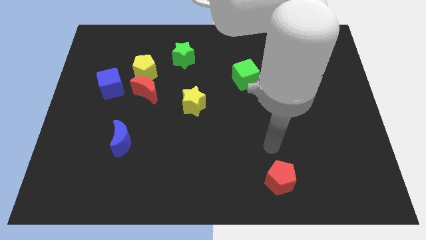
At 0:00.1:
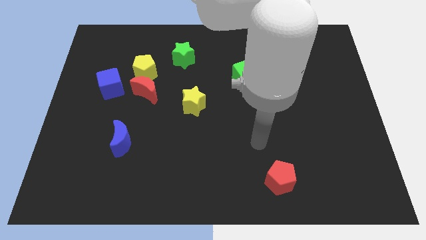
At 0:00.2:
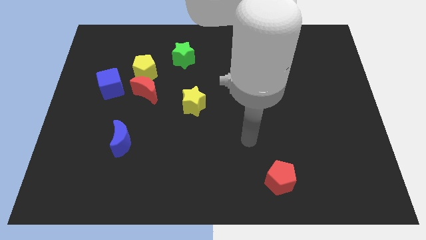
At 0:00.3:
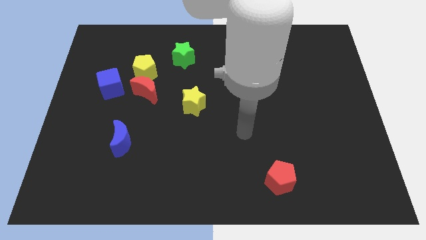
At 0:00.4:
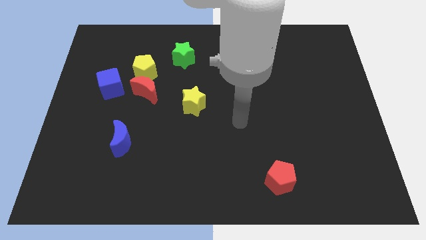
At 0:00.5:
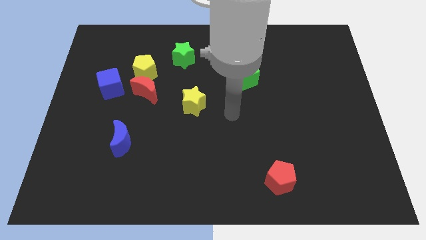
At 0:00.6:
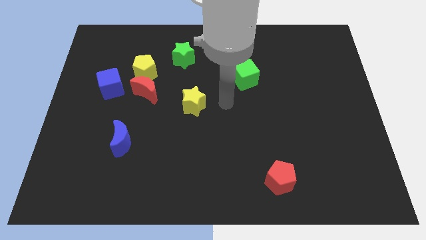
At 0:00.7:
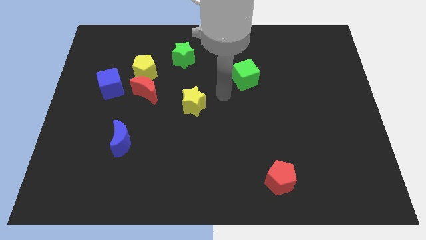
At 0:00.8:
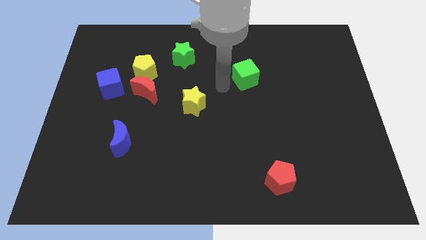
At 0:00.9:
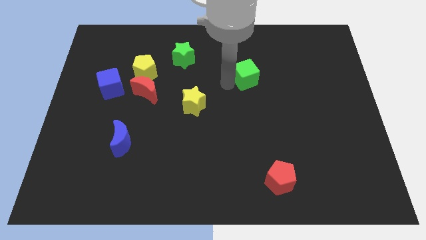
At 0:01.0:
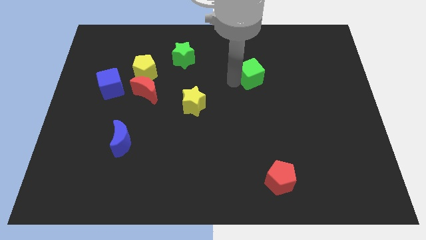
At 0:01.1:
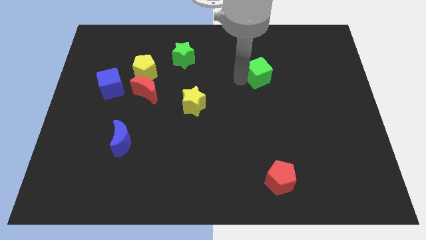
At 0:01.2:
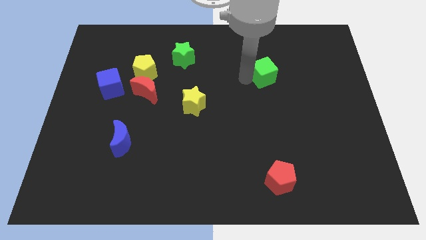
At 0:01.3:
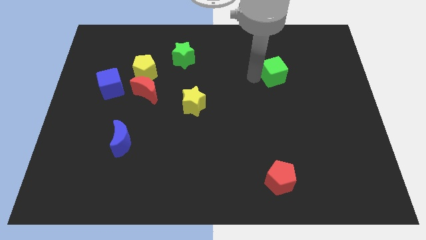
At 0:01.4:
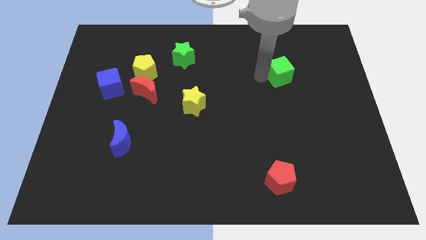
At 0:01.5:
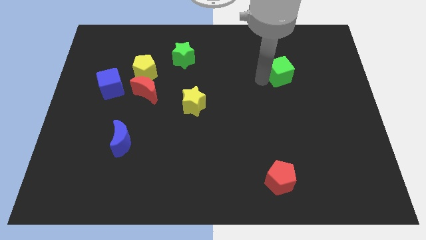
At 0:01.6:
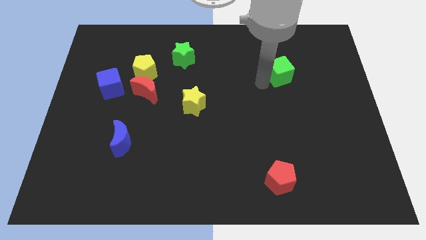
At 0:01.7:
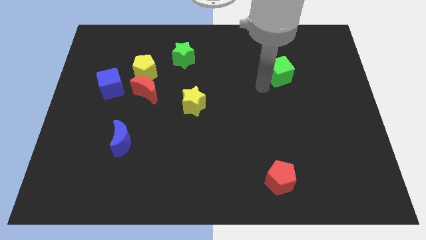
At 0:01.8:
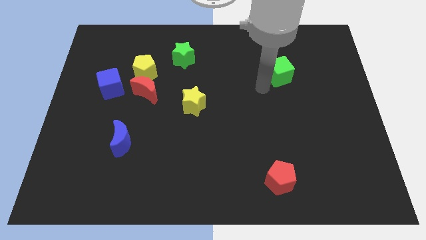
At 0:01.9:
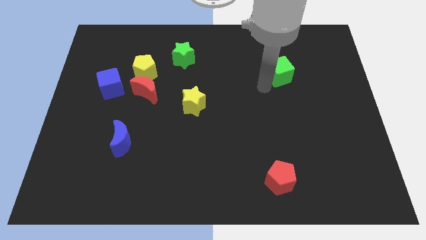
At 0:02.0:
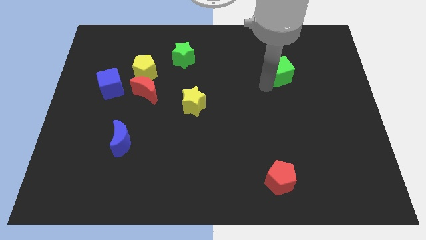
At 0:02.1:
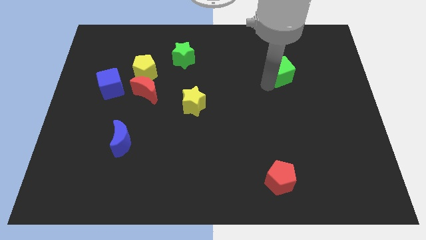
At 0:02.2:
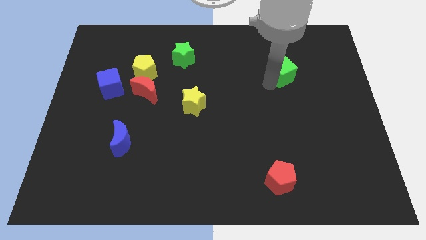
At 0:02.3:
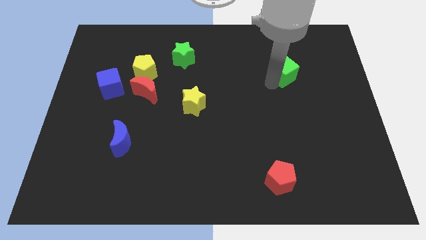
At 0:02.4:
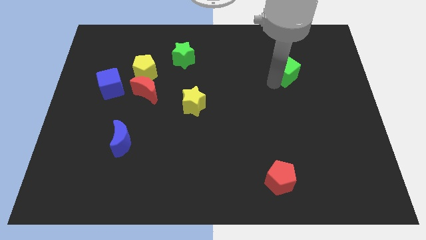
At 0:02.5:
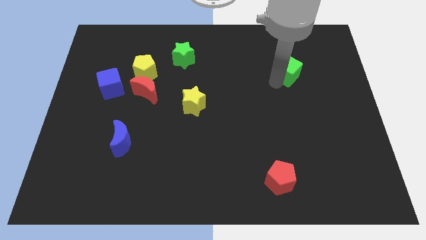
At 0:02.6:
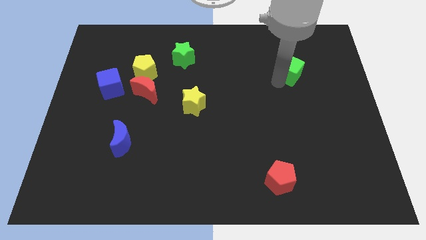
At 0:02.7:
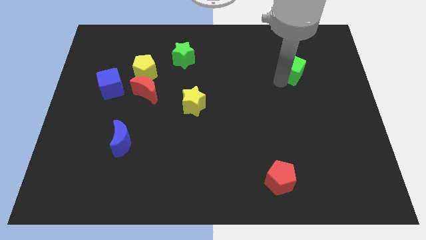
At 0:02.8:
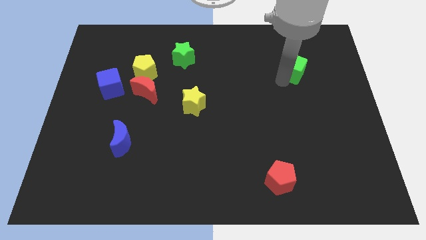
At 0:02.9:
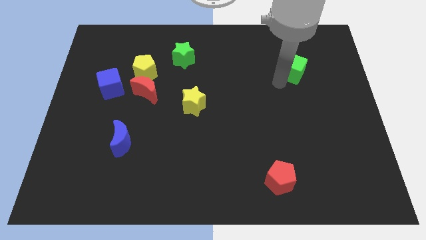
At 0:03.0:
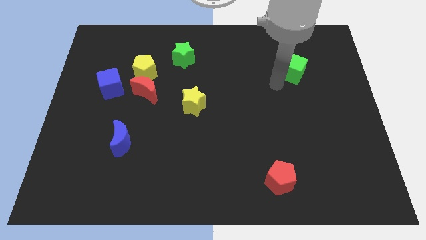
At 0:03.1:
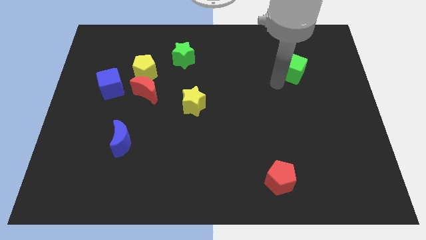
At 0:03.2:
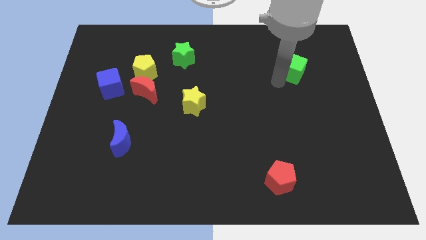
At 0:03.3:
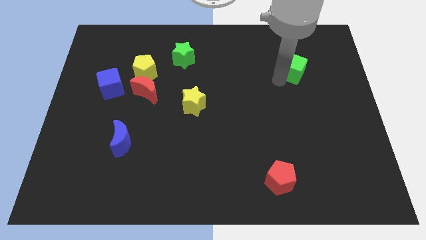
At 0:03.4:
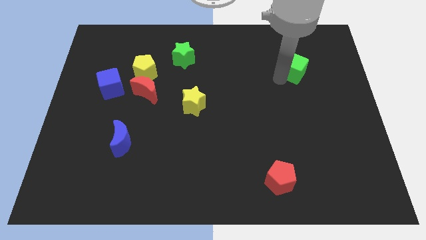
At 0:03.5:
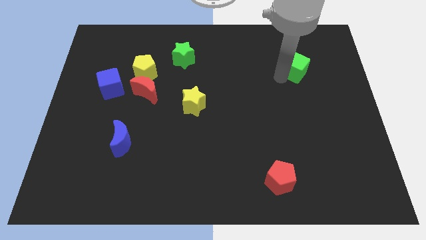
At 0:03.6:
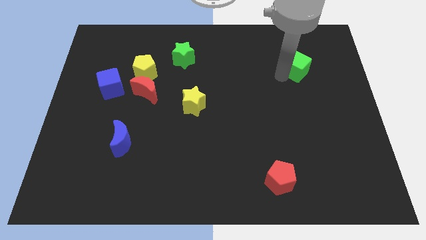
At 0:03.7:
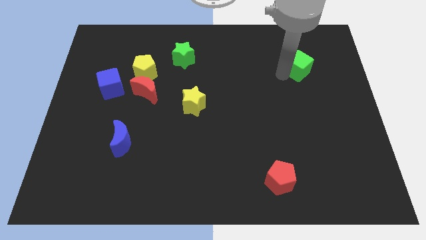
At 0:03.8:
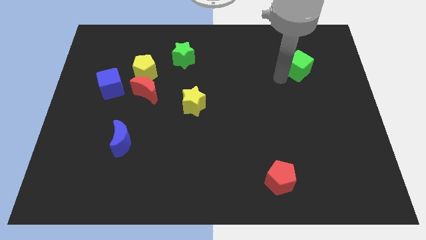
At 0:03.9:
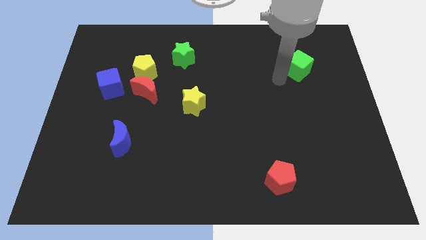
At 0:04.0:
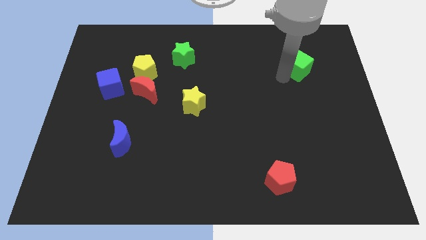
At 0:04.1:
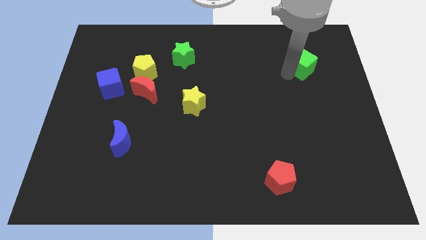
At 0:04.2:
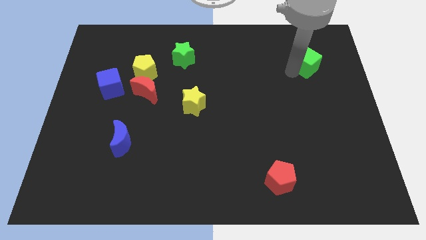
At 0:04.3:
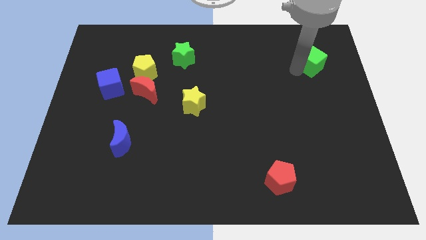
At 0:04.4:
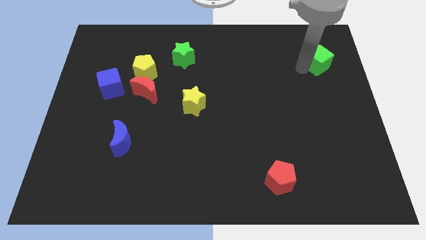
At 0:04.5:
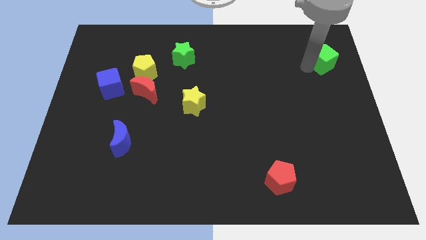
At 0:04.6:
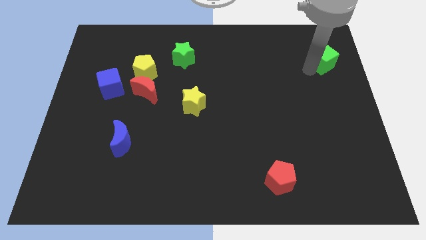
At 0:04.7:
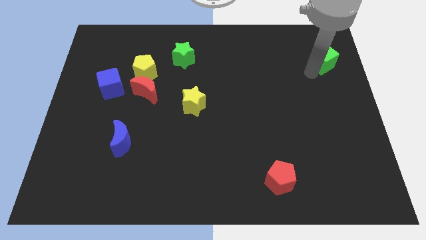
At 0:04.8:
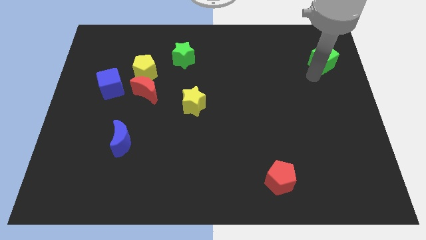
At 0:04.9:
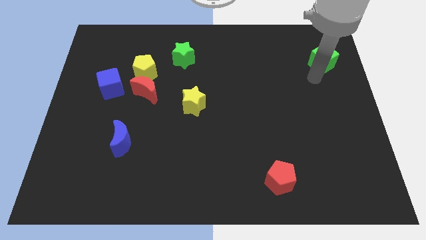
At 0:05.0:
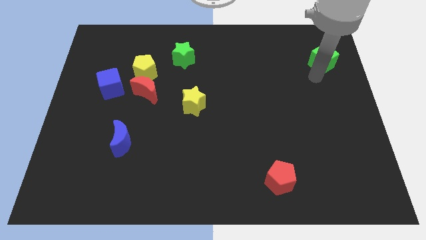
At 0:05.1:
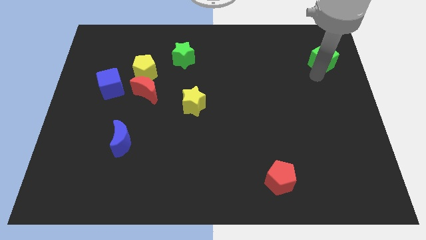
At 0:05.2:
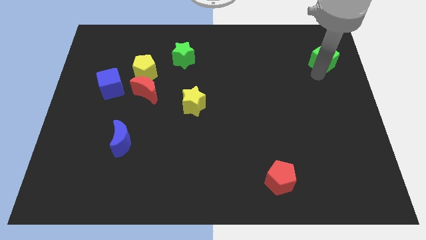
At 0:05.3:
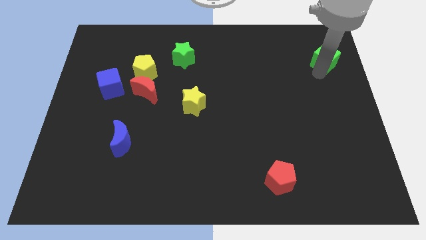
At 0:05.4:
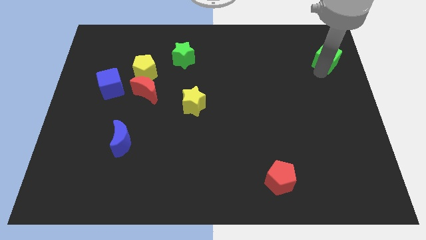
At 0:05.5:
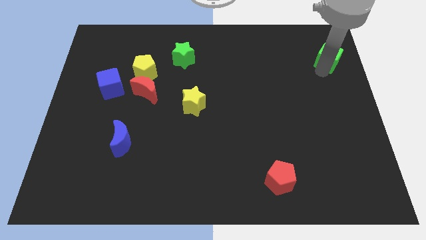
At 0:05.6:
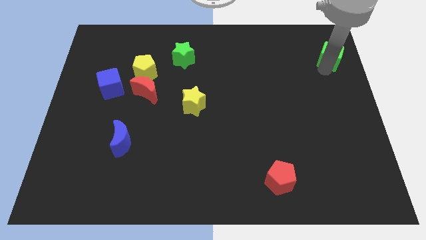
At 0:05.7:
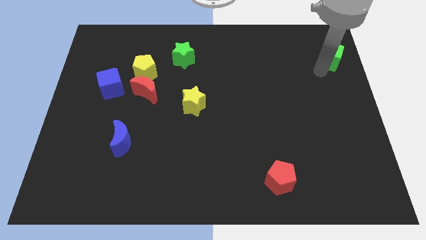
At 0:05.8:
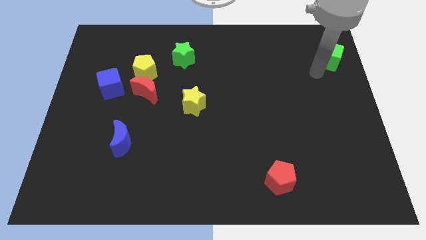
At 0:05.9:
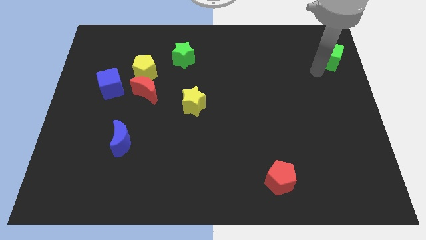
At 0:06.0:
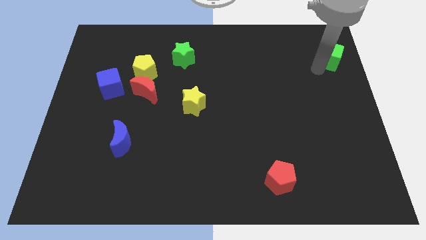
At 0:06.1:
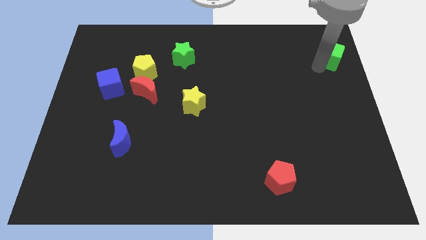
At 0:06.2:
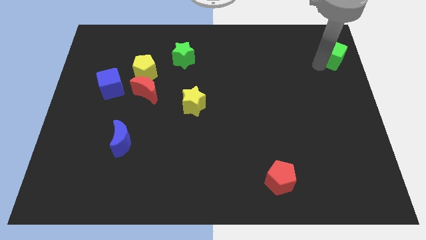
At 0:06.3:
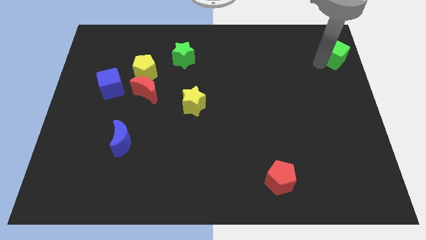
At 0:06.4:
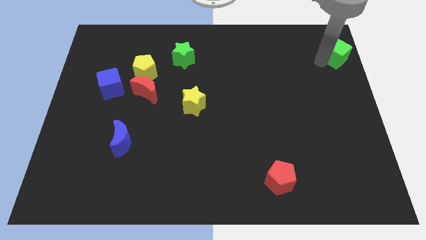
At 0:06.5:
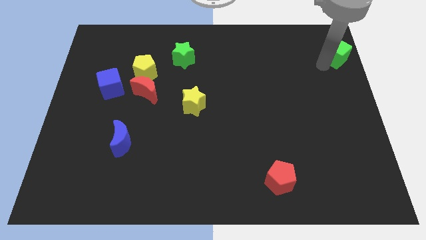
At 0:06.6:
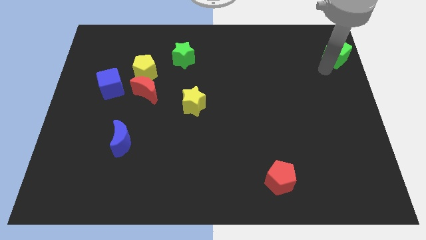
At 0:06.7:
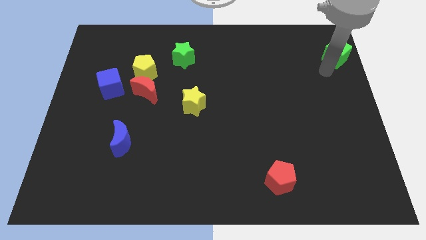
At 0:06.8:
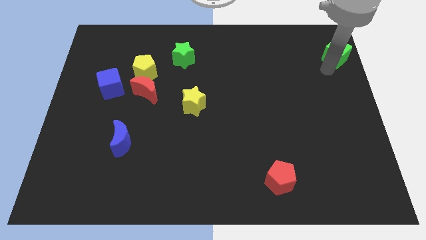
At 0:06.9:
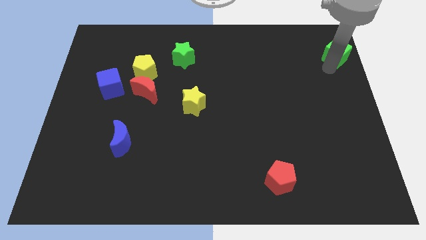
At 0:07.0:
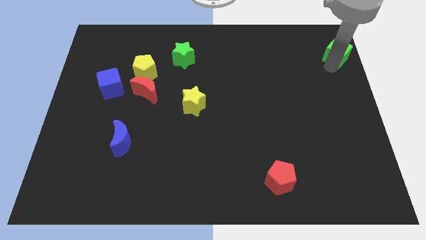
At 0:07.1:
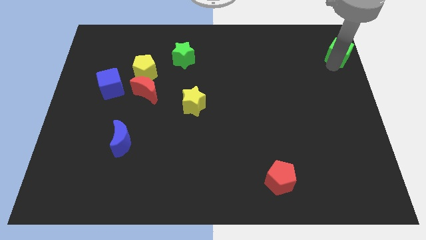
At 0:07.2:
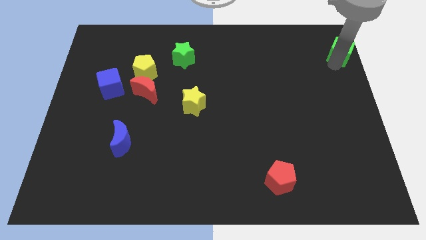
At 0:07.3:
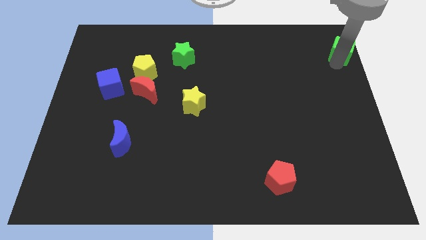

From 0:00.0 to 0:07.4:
move the green cube to the upper right corner
